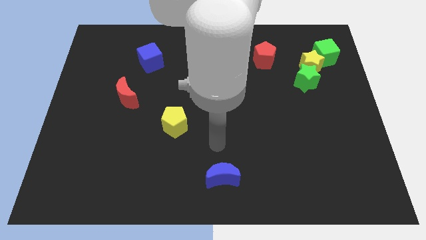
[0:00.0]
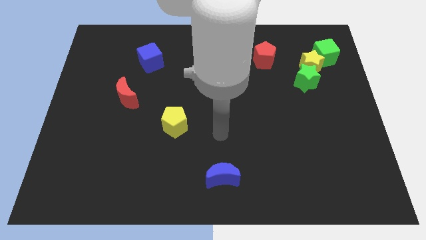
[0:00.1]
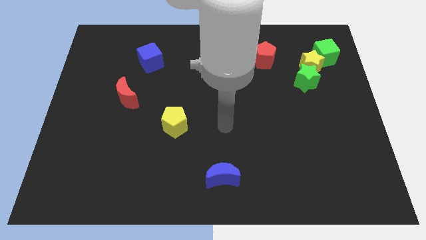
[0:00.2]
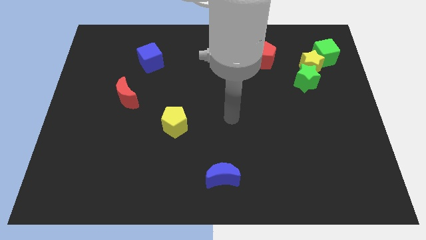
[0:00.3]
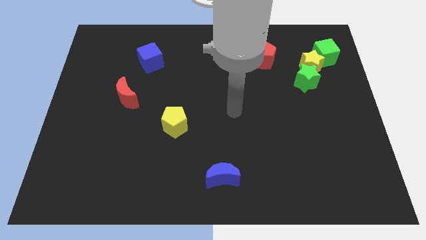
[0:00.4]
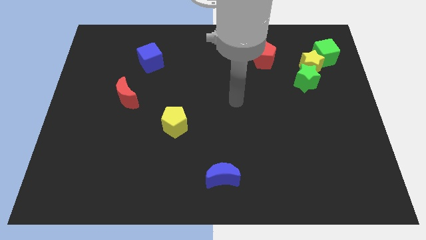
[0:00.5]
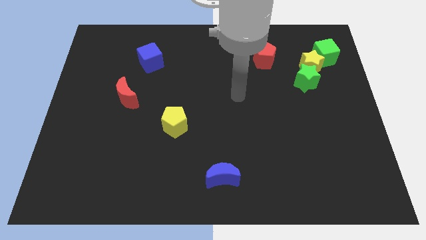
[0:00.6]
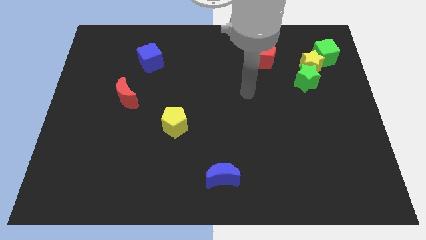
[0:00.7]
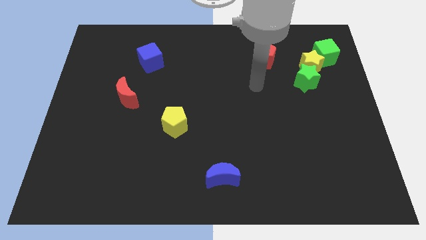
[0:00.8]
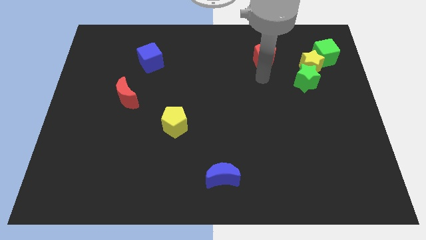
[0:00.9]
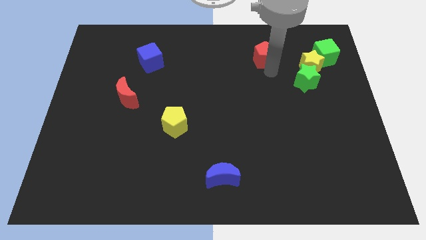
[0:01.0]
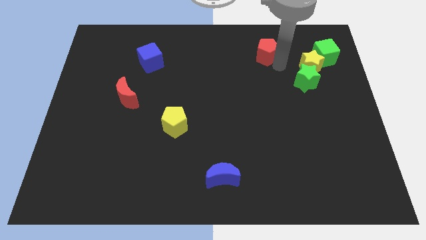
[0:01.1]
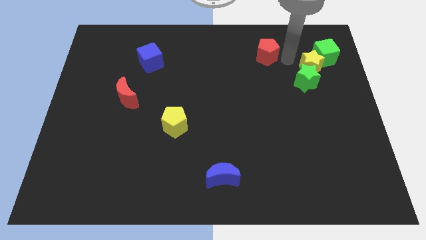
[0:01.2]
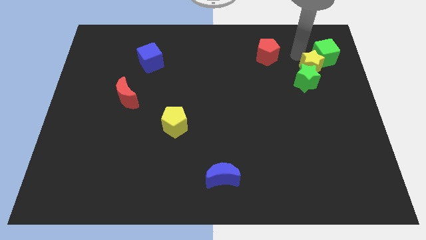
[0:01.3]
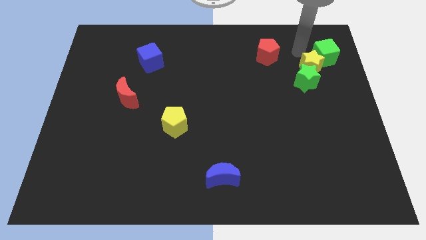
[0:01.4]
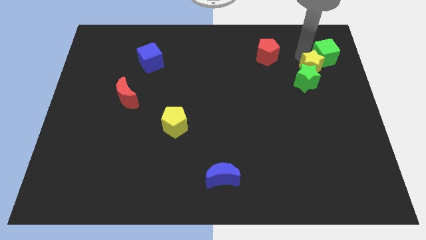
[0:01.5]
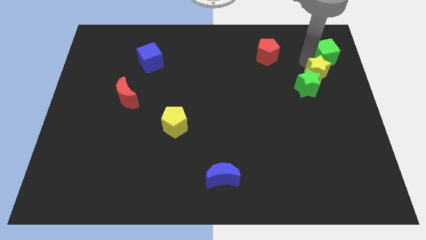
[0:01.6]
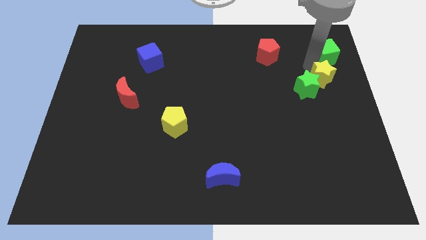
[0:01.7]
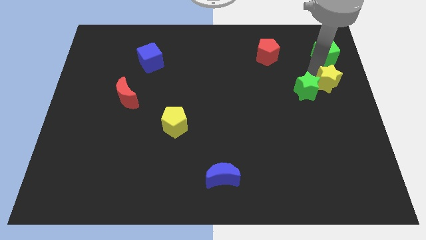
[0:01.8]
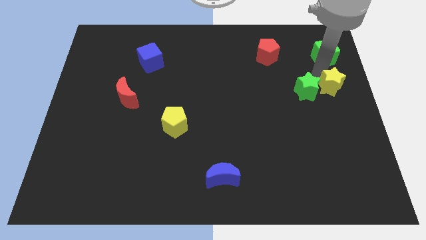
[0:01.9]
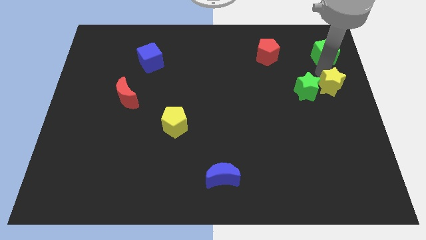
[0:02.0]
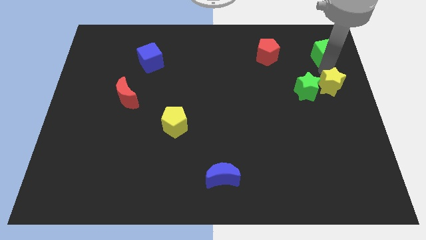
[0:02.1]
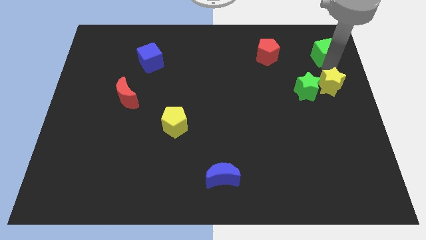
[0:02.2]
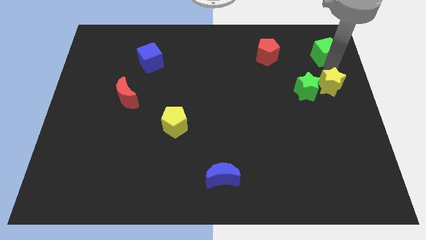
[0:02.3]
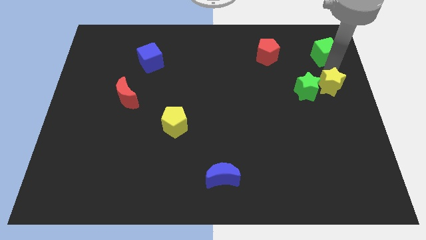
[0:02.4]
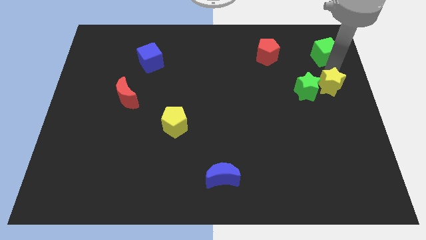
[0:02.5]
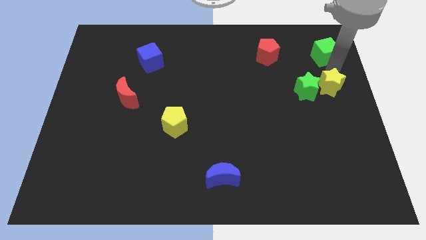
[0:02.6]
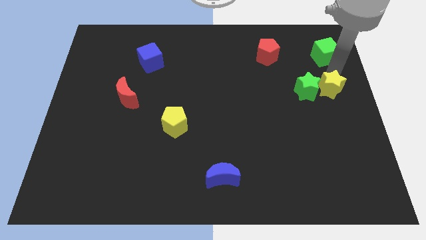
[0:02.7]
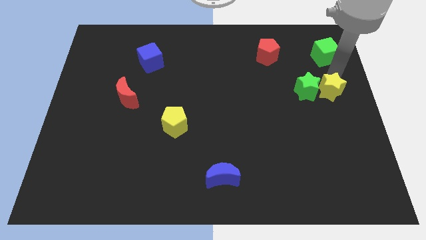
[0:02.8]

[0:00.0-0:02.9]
slightly move the yellow star down

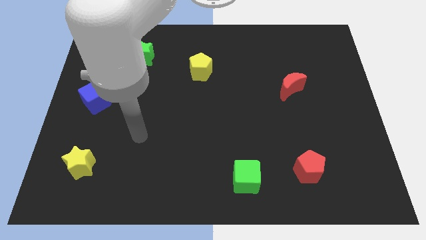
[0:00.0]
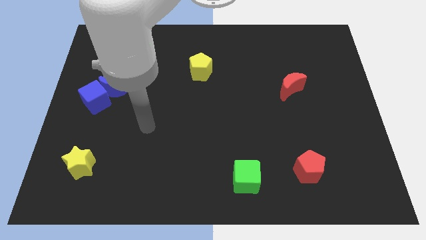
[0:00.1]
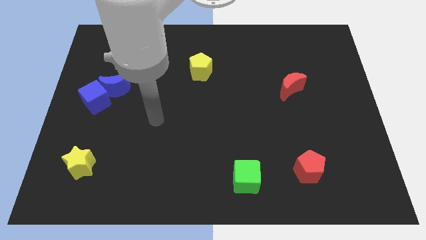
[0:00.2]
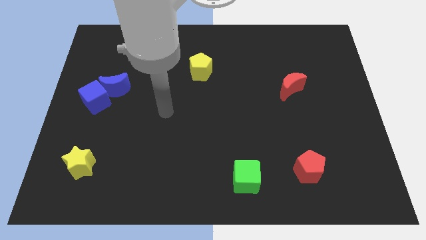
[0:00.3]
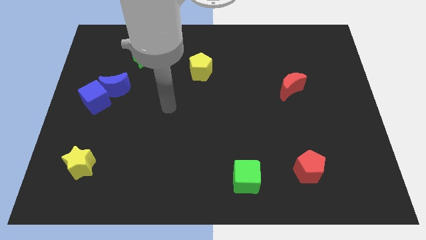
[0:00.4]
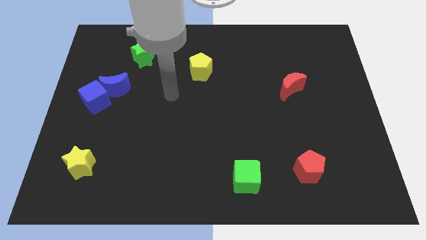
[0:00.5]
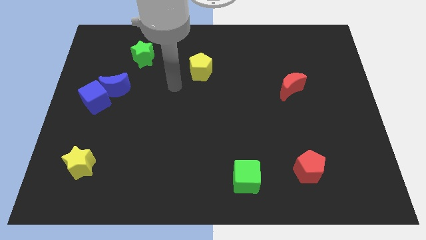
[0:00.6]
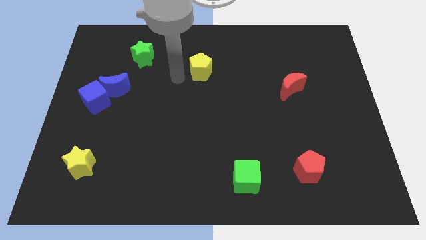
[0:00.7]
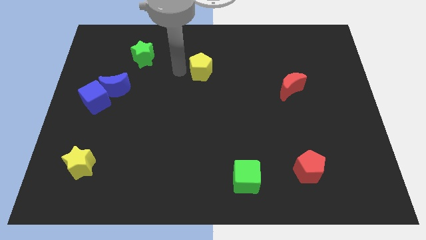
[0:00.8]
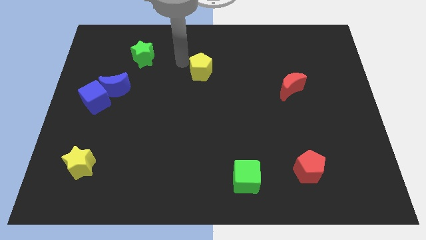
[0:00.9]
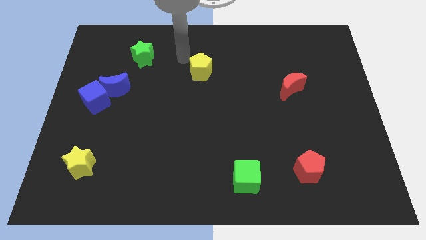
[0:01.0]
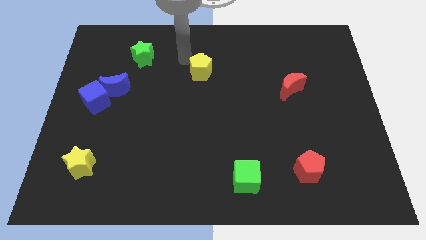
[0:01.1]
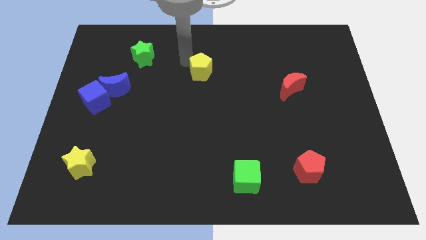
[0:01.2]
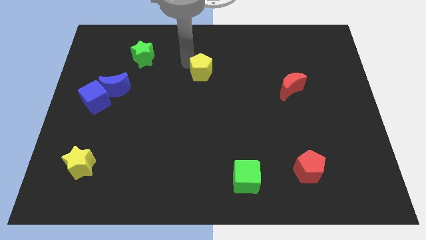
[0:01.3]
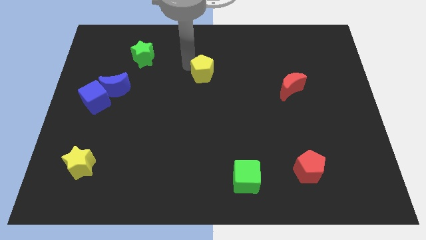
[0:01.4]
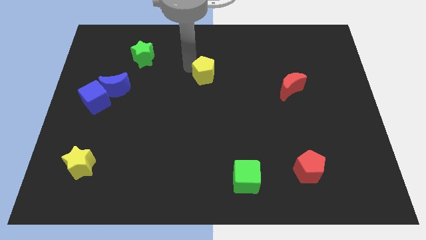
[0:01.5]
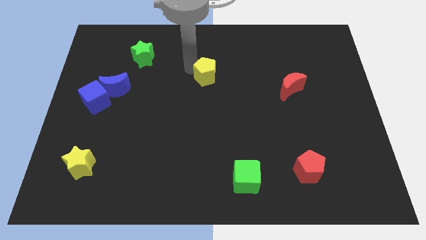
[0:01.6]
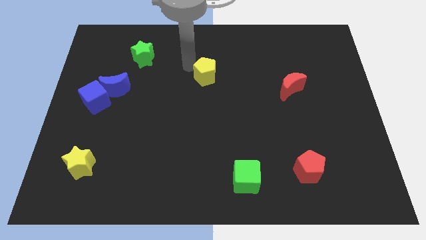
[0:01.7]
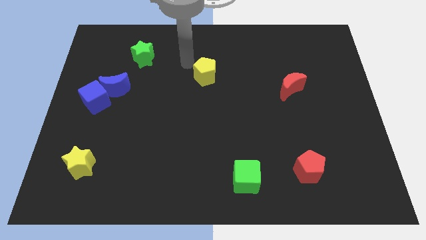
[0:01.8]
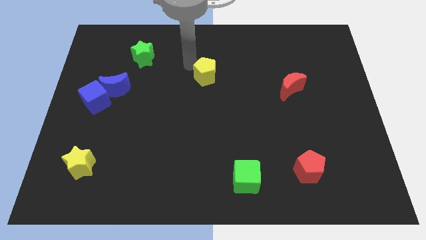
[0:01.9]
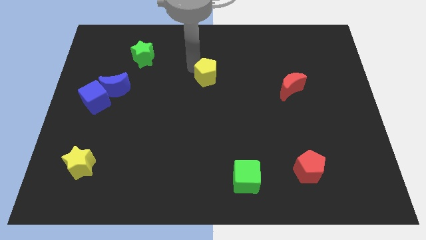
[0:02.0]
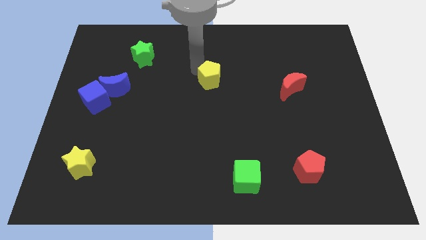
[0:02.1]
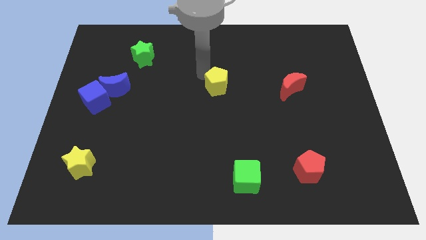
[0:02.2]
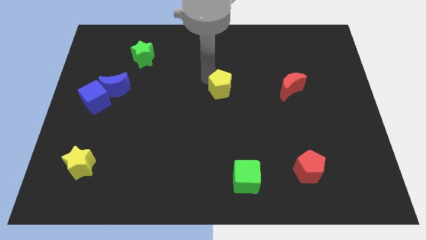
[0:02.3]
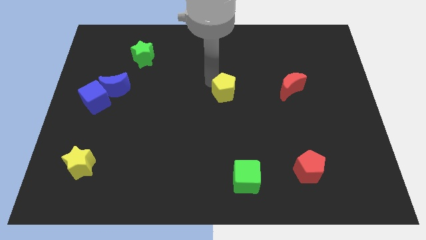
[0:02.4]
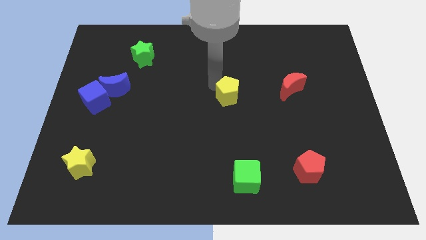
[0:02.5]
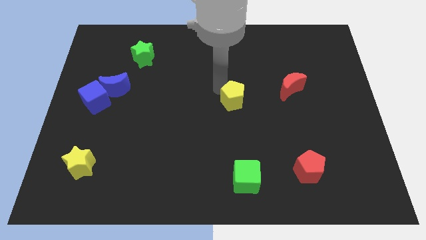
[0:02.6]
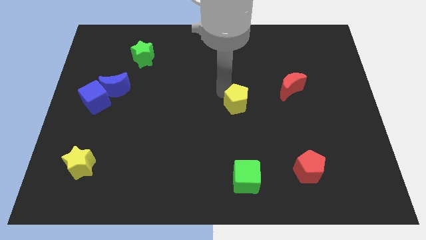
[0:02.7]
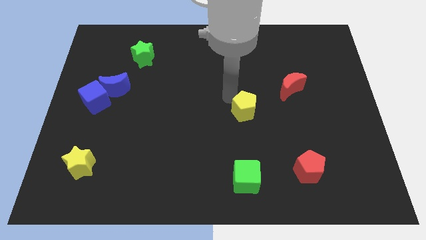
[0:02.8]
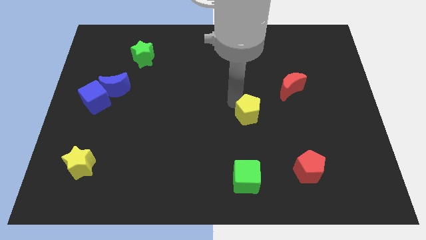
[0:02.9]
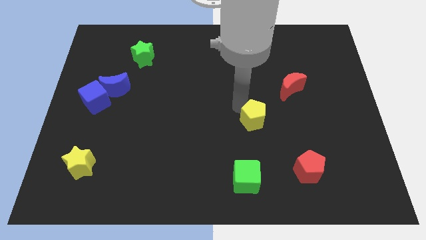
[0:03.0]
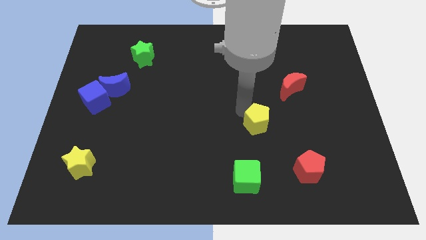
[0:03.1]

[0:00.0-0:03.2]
move the yellow pentagon down and then right

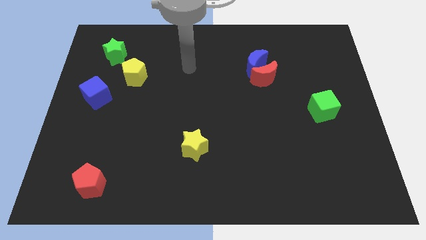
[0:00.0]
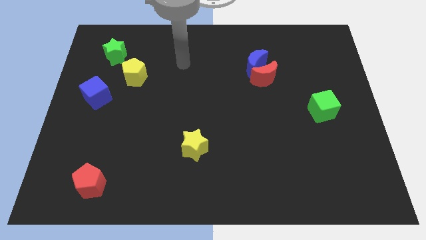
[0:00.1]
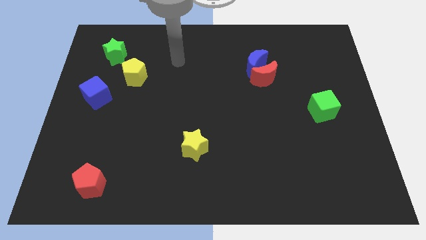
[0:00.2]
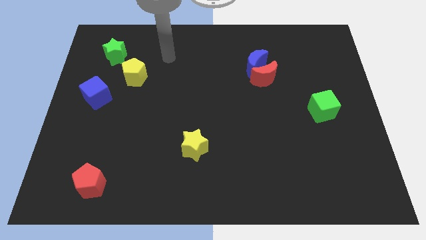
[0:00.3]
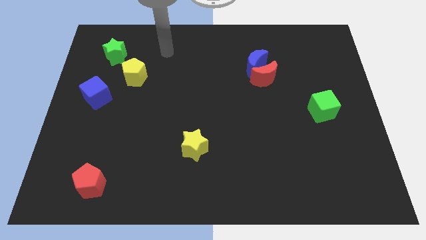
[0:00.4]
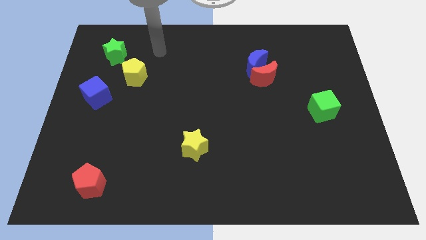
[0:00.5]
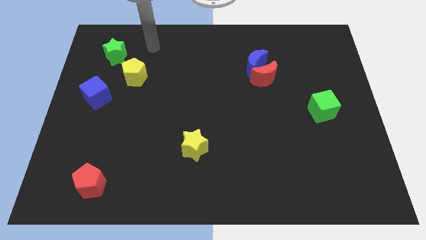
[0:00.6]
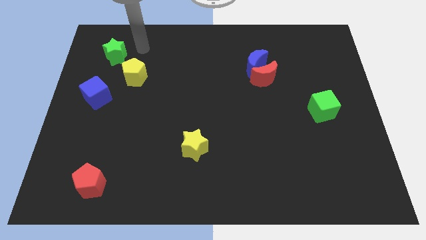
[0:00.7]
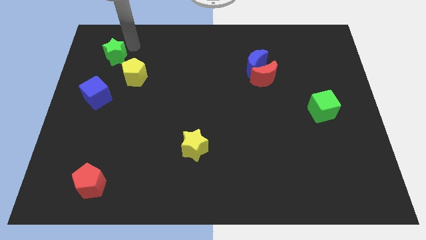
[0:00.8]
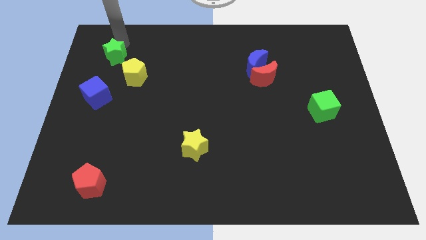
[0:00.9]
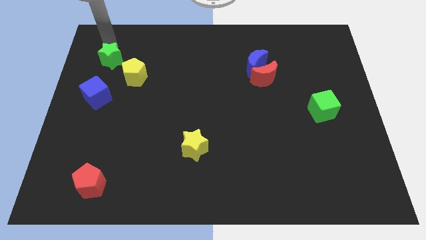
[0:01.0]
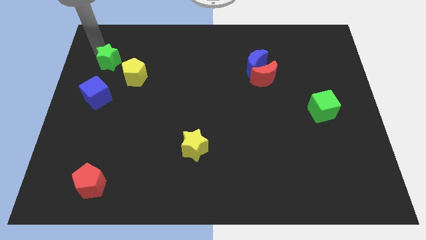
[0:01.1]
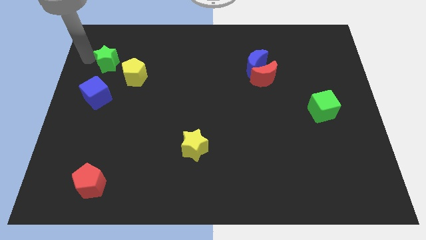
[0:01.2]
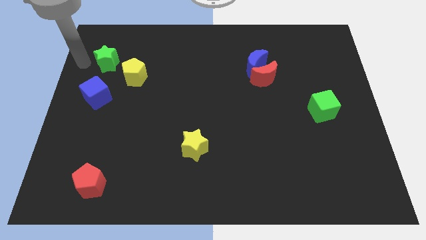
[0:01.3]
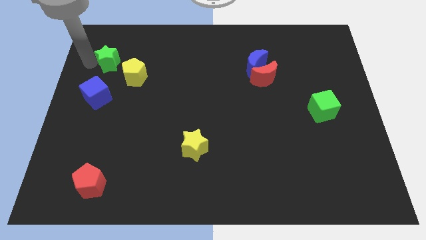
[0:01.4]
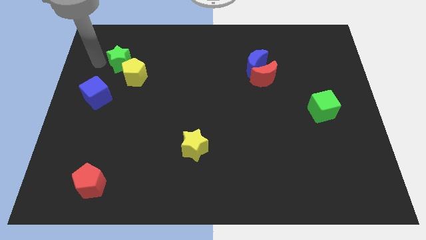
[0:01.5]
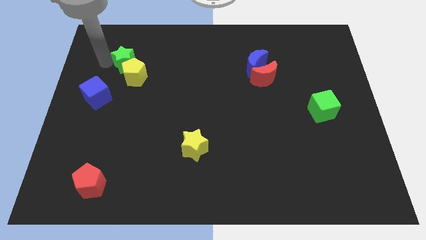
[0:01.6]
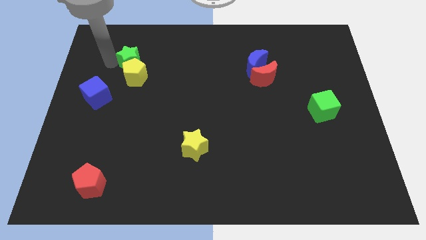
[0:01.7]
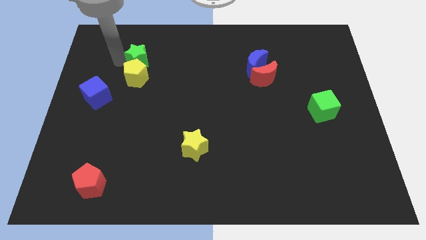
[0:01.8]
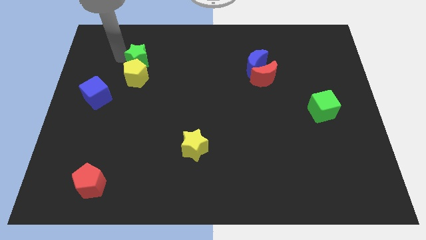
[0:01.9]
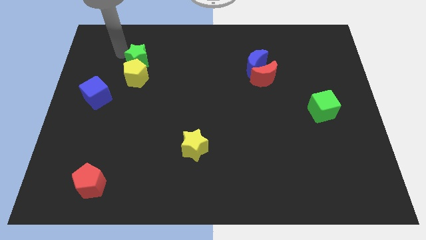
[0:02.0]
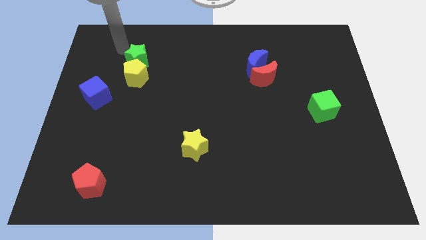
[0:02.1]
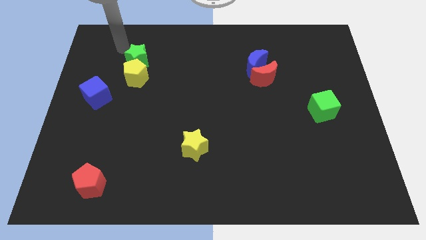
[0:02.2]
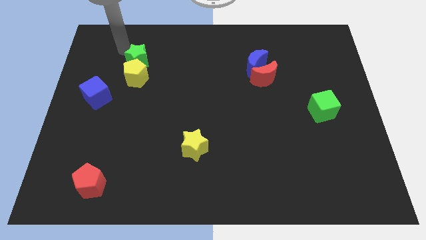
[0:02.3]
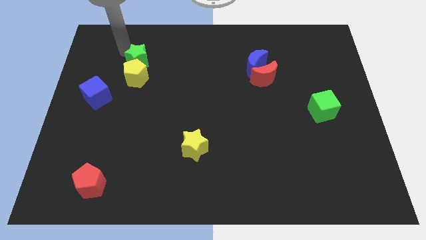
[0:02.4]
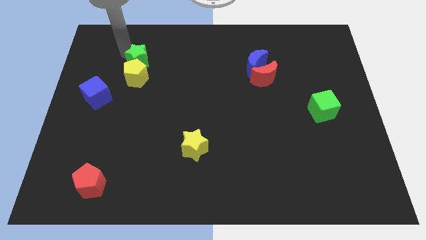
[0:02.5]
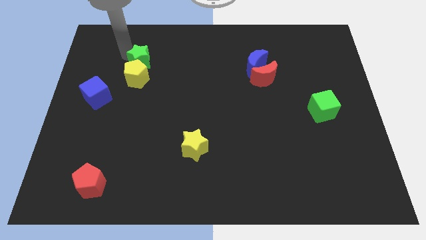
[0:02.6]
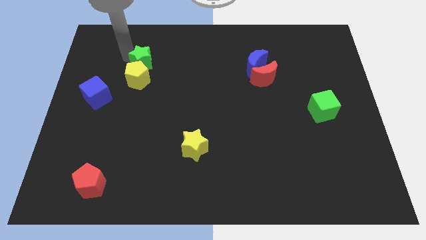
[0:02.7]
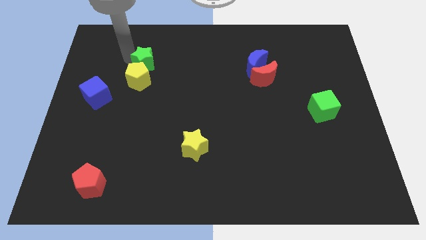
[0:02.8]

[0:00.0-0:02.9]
slide the green star diagonally down and right a little bit
